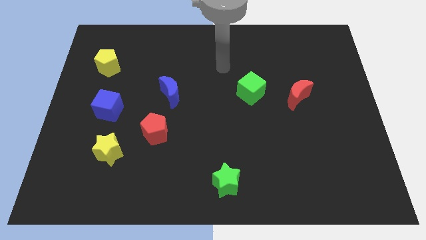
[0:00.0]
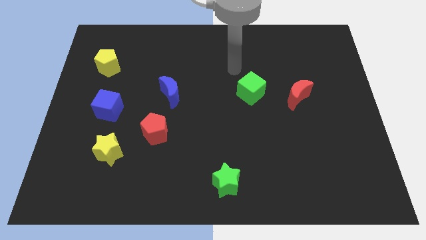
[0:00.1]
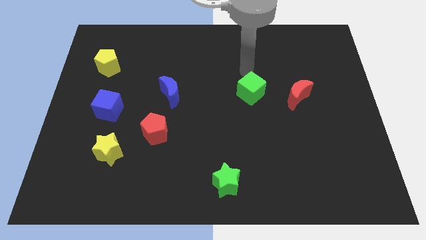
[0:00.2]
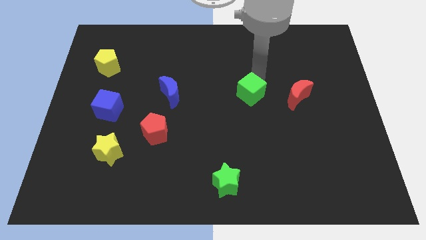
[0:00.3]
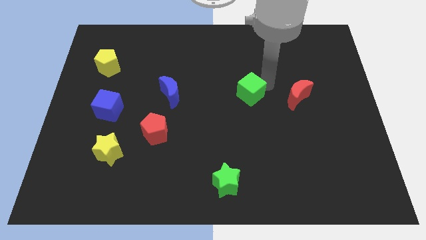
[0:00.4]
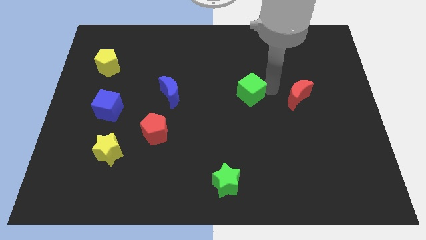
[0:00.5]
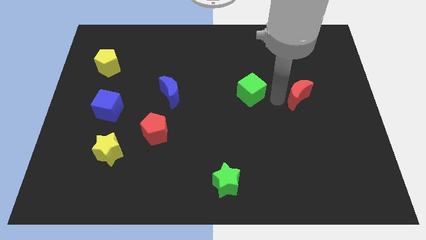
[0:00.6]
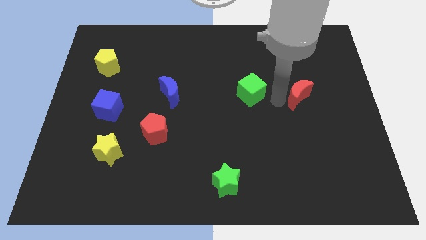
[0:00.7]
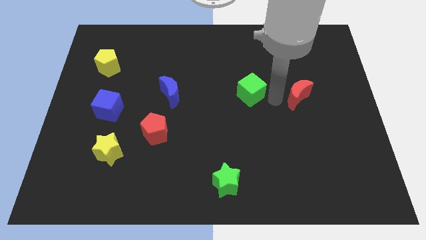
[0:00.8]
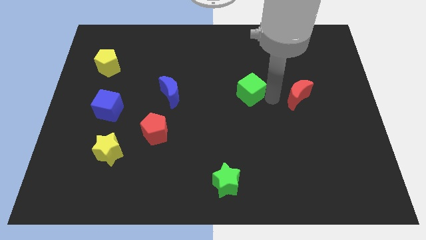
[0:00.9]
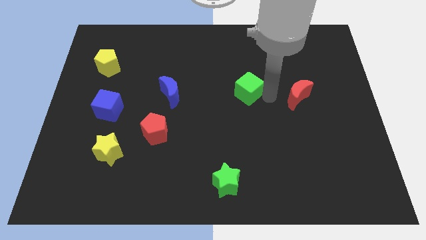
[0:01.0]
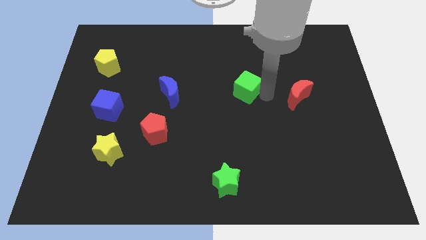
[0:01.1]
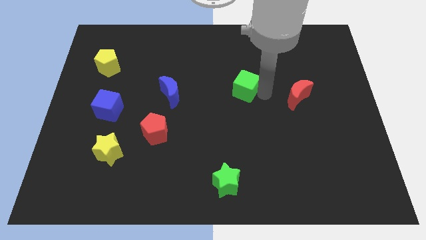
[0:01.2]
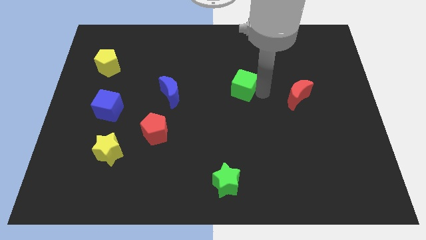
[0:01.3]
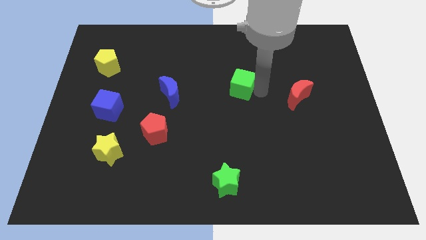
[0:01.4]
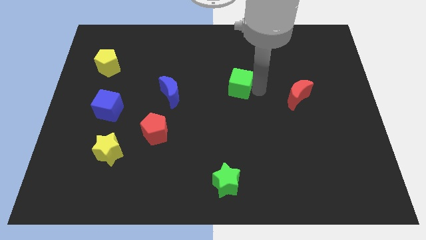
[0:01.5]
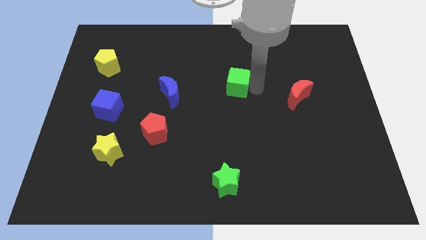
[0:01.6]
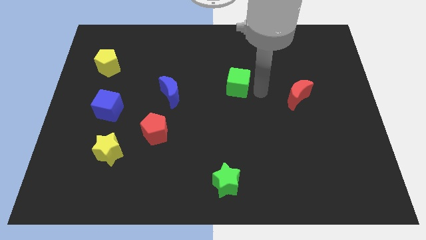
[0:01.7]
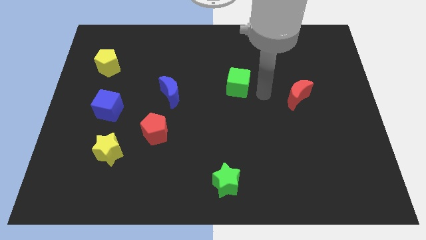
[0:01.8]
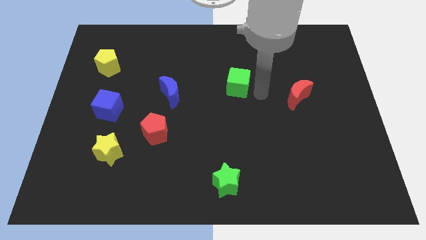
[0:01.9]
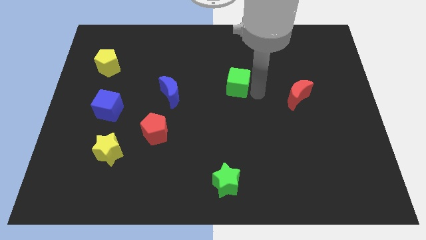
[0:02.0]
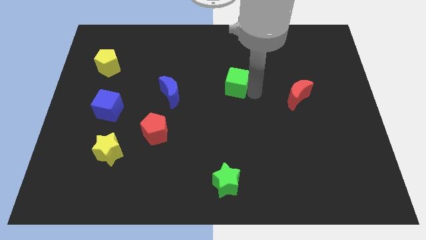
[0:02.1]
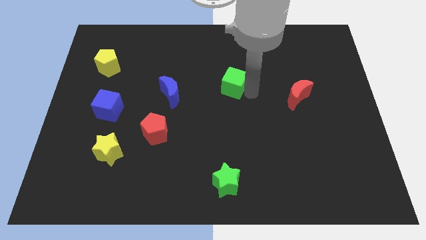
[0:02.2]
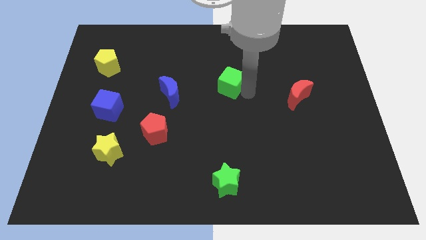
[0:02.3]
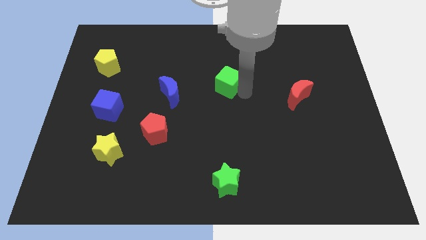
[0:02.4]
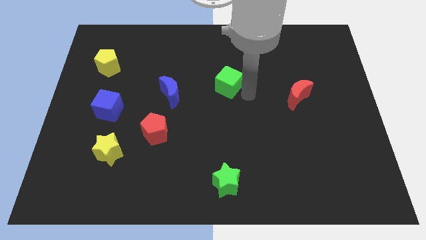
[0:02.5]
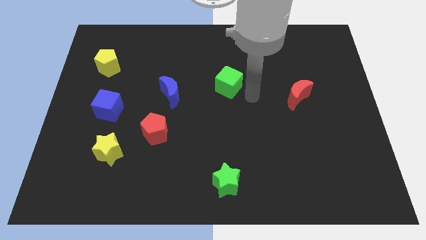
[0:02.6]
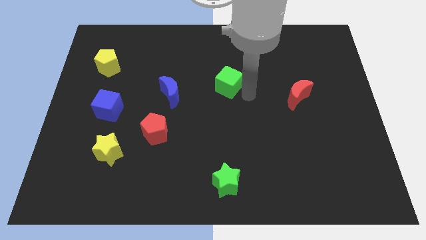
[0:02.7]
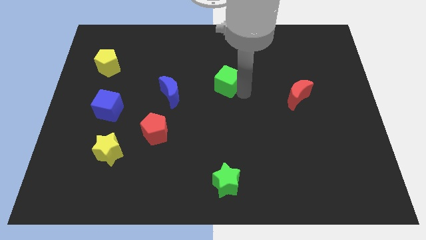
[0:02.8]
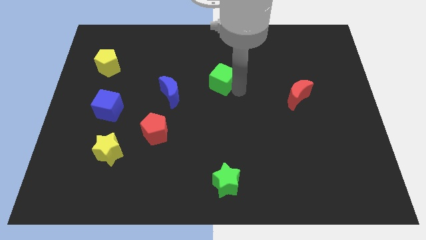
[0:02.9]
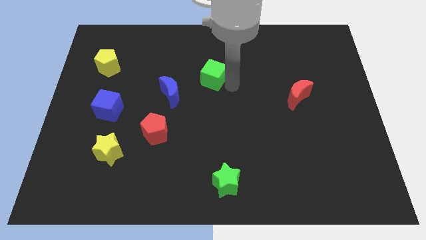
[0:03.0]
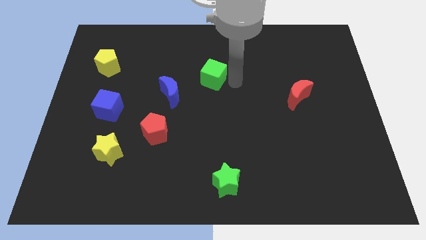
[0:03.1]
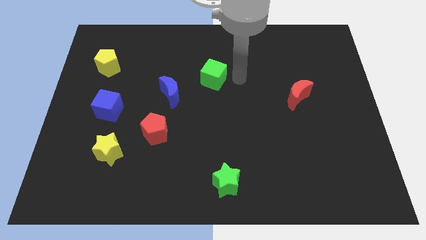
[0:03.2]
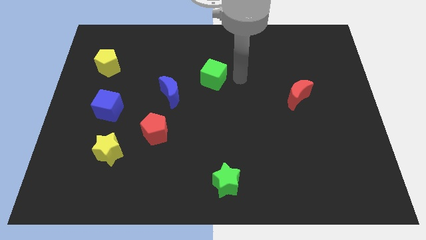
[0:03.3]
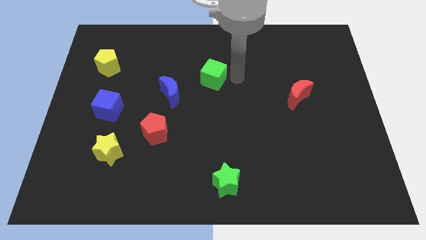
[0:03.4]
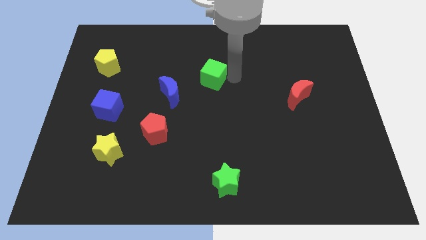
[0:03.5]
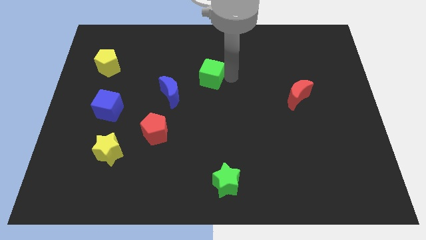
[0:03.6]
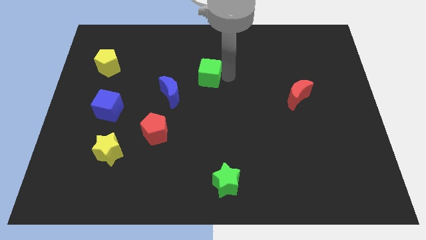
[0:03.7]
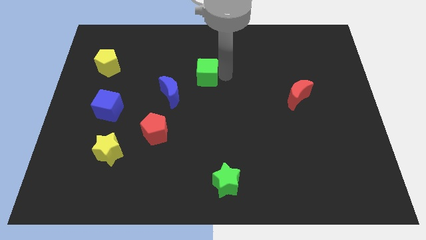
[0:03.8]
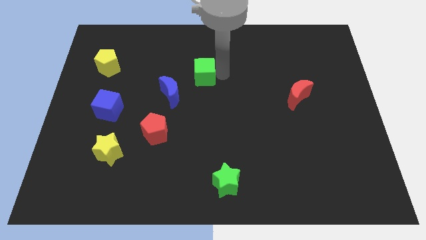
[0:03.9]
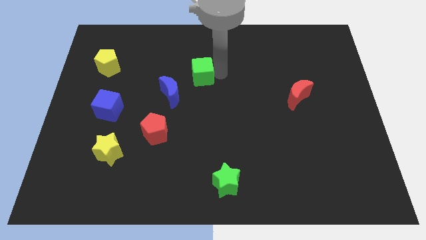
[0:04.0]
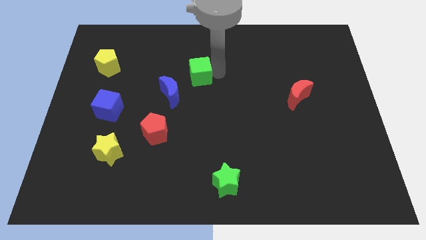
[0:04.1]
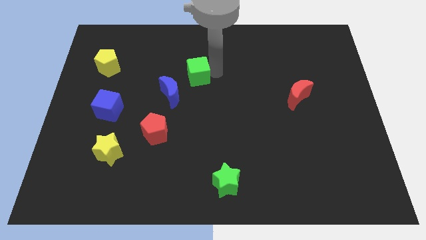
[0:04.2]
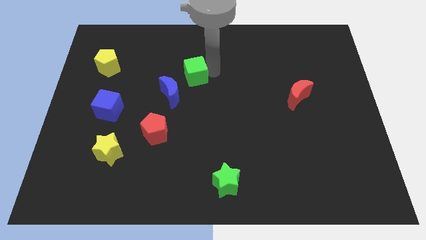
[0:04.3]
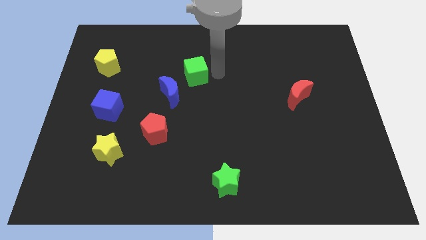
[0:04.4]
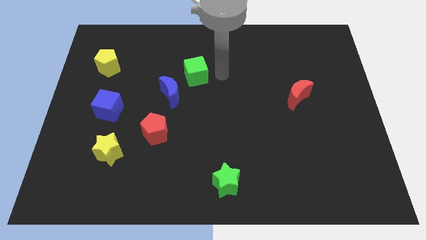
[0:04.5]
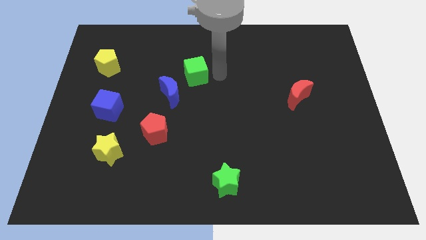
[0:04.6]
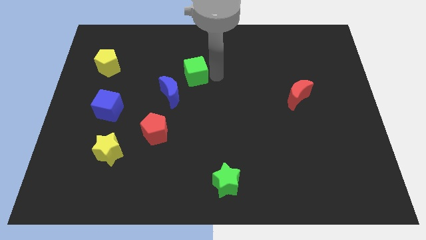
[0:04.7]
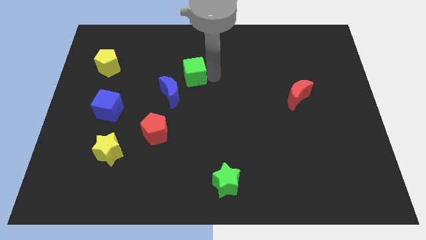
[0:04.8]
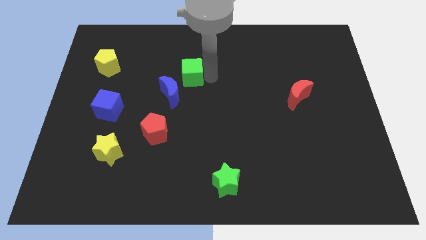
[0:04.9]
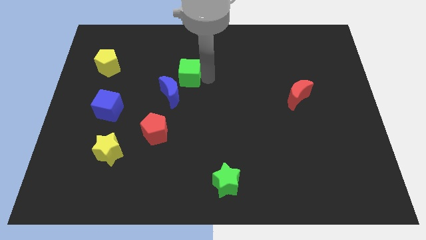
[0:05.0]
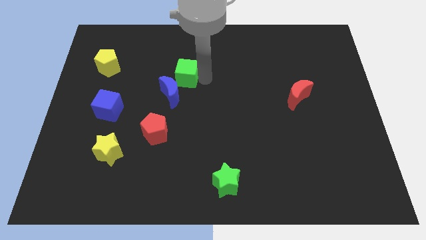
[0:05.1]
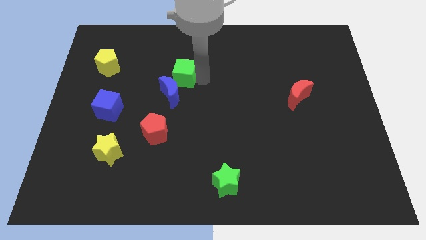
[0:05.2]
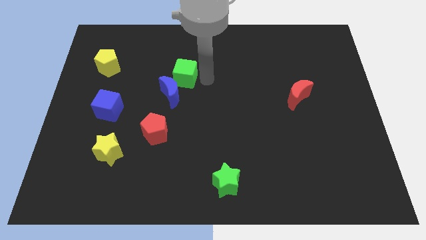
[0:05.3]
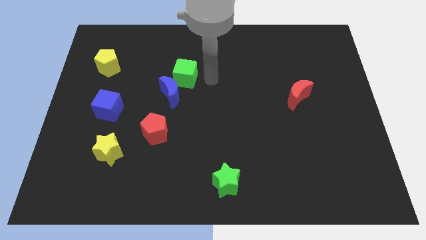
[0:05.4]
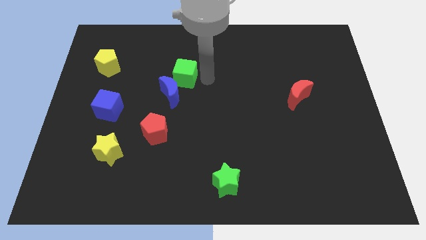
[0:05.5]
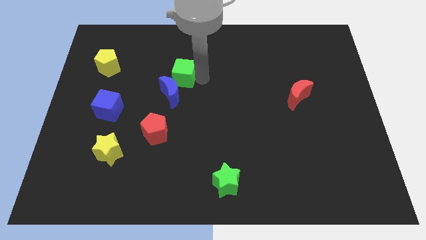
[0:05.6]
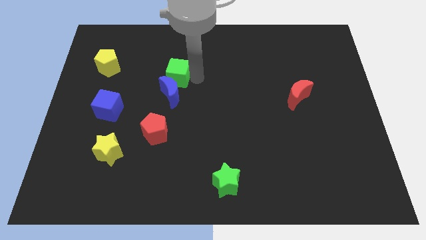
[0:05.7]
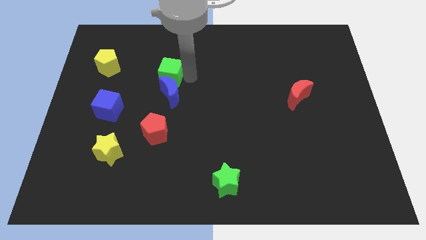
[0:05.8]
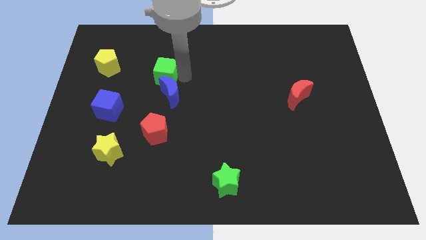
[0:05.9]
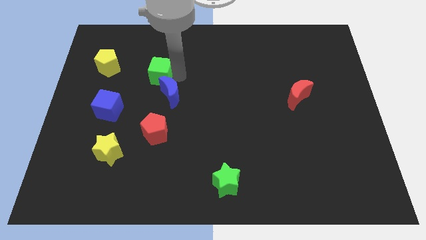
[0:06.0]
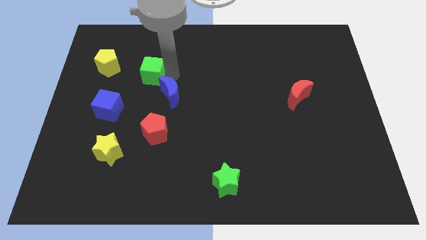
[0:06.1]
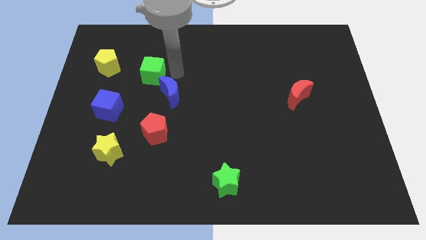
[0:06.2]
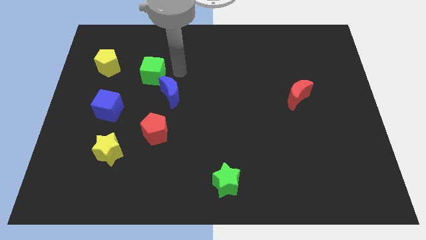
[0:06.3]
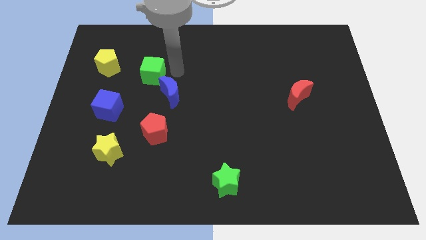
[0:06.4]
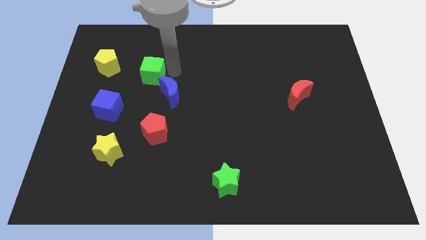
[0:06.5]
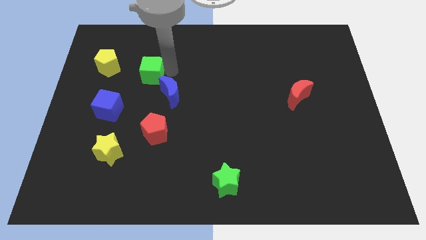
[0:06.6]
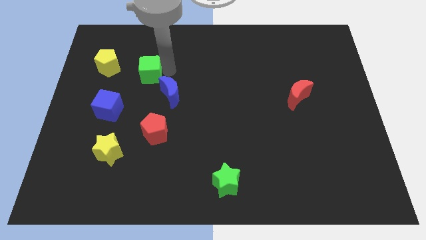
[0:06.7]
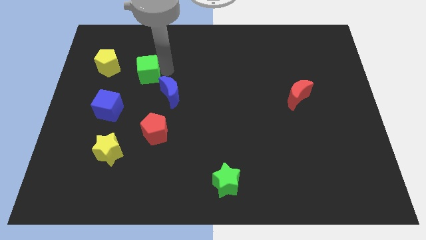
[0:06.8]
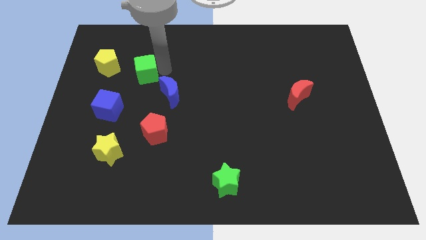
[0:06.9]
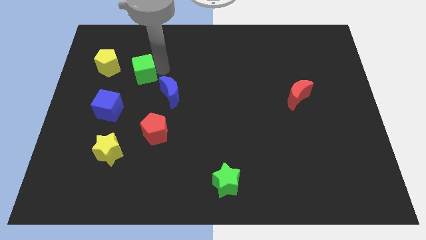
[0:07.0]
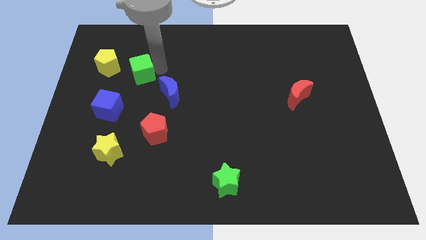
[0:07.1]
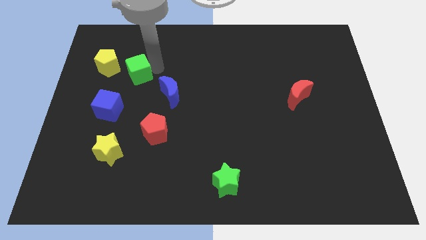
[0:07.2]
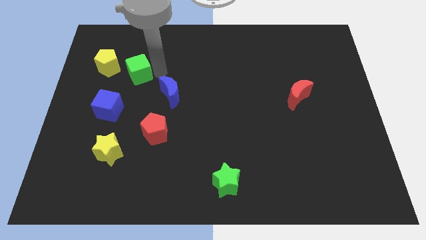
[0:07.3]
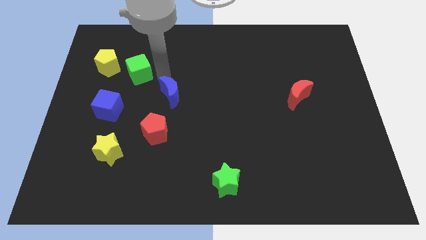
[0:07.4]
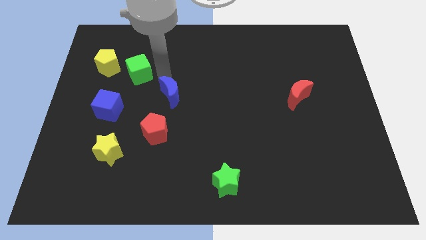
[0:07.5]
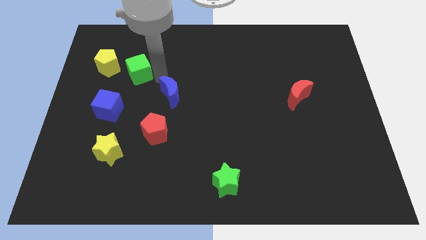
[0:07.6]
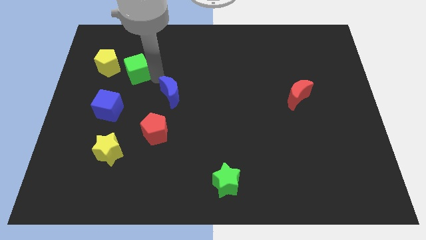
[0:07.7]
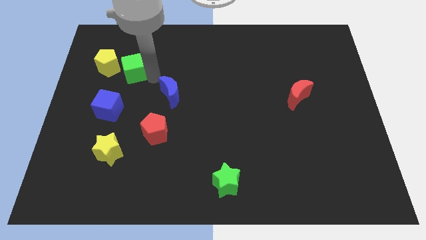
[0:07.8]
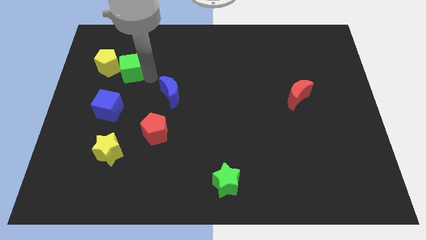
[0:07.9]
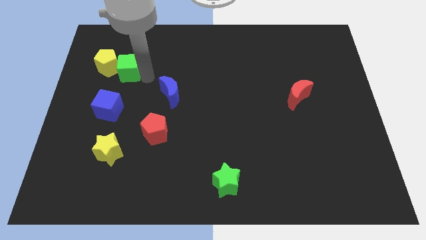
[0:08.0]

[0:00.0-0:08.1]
put the green cube next to the yellow pentagon
